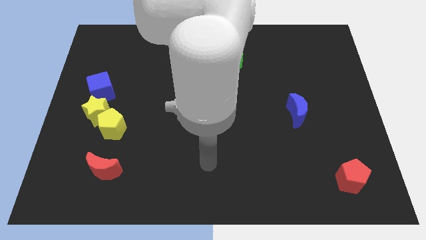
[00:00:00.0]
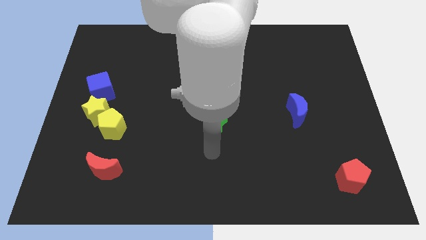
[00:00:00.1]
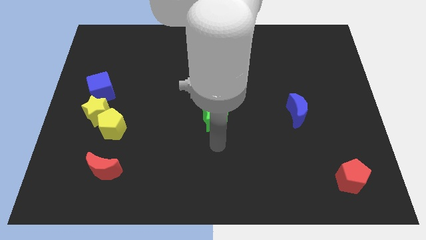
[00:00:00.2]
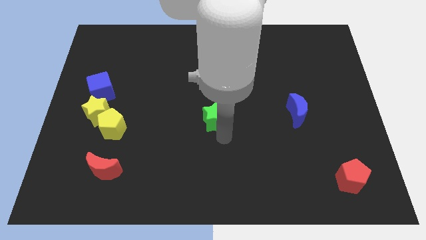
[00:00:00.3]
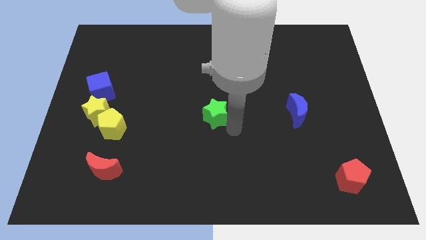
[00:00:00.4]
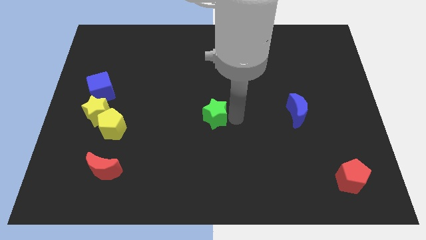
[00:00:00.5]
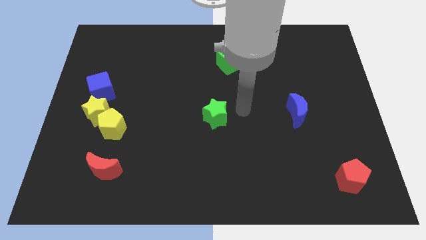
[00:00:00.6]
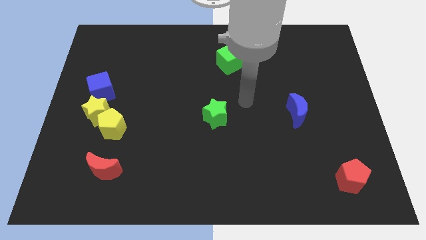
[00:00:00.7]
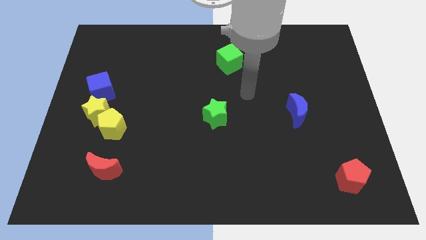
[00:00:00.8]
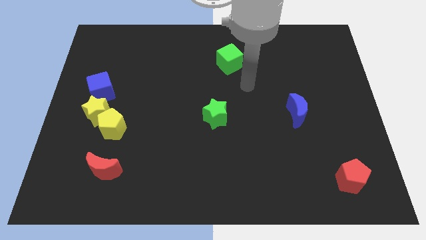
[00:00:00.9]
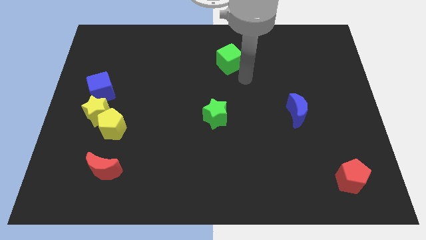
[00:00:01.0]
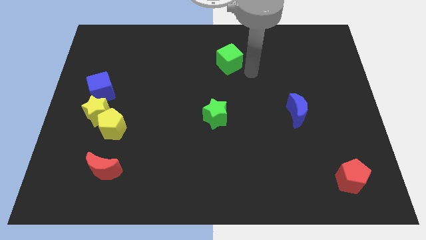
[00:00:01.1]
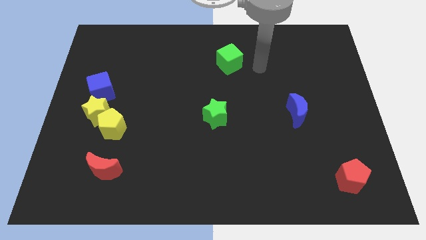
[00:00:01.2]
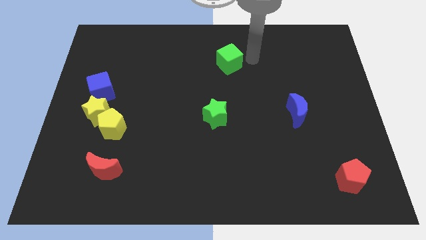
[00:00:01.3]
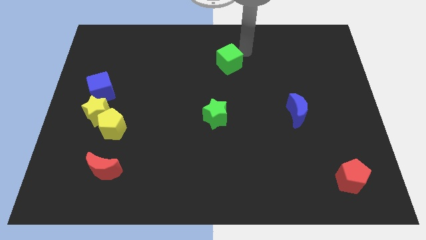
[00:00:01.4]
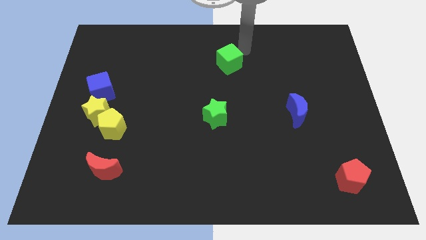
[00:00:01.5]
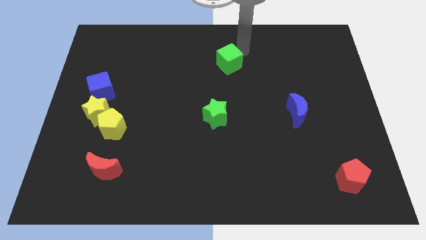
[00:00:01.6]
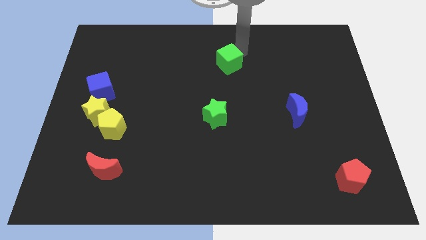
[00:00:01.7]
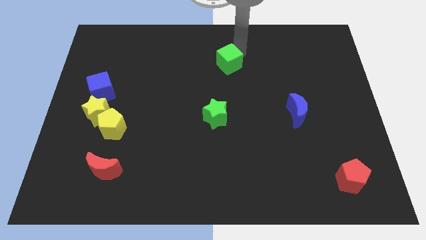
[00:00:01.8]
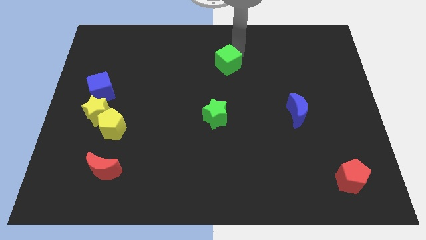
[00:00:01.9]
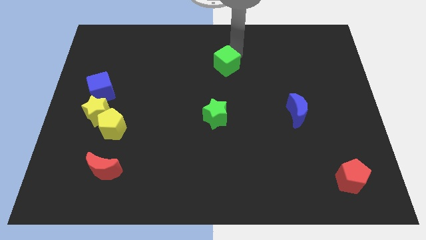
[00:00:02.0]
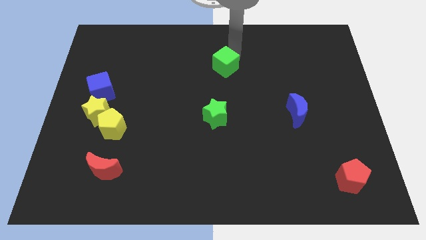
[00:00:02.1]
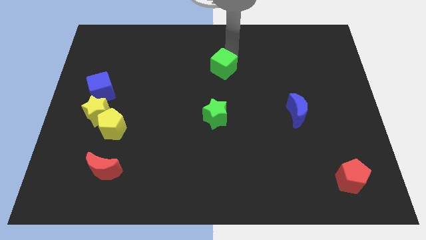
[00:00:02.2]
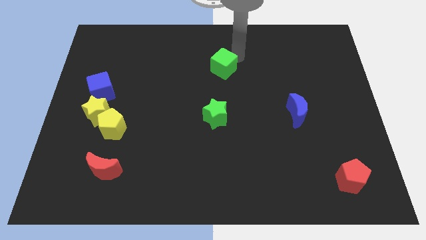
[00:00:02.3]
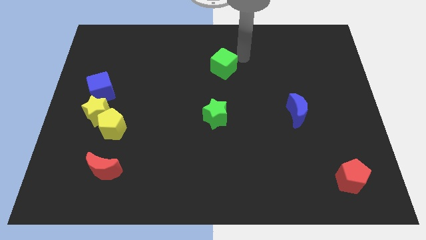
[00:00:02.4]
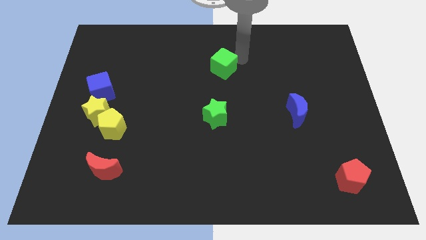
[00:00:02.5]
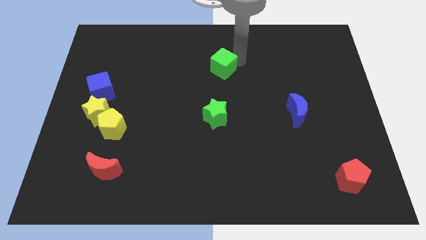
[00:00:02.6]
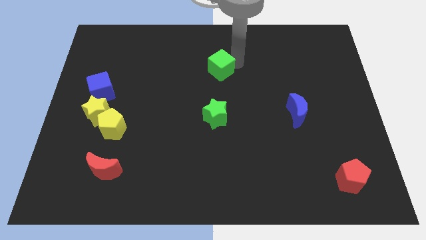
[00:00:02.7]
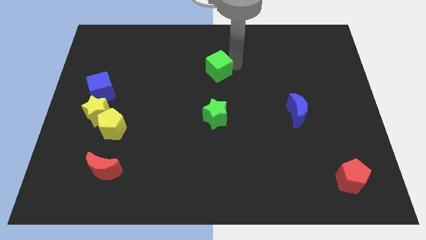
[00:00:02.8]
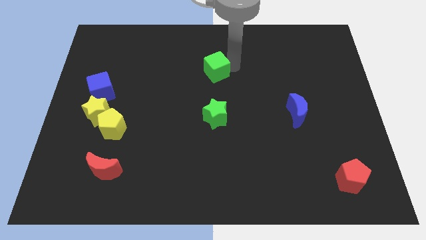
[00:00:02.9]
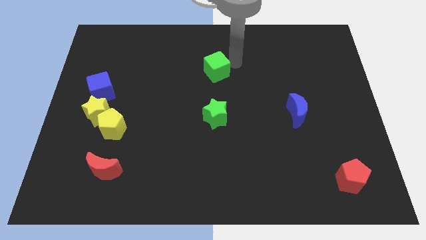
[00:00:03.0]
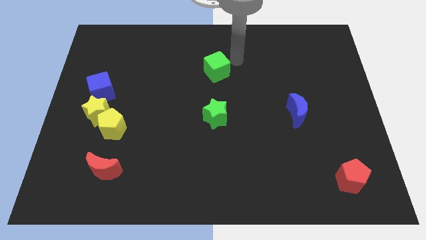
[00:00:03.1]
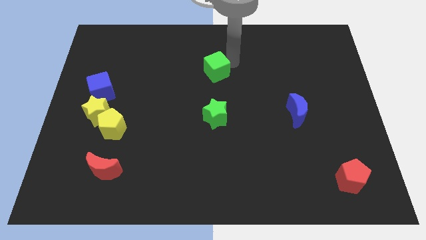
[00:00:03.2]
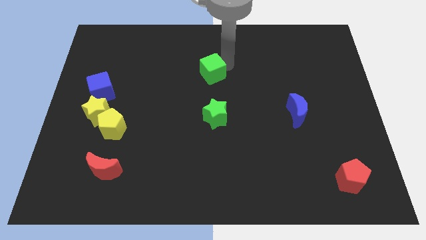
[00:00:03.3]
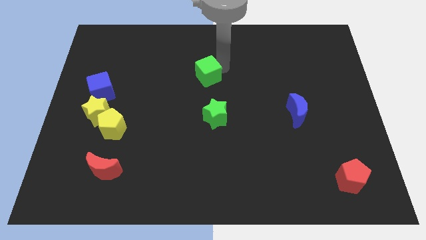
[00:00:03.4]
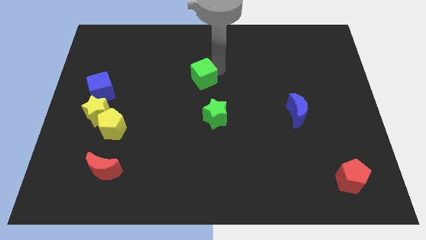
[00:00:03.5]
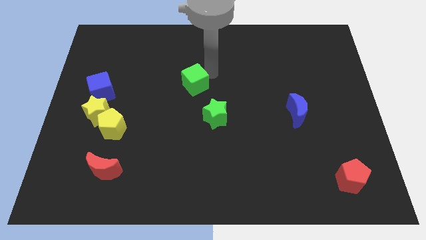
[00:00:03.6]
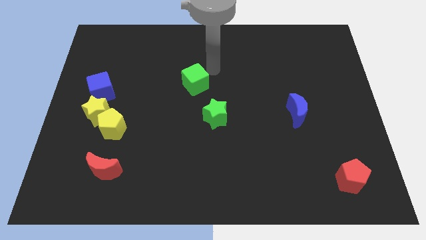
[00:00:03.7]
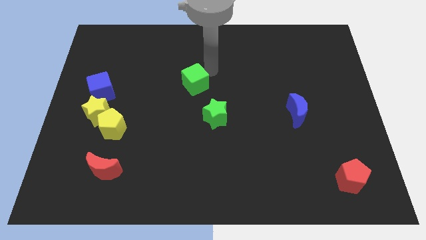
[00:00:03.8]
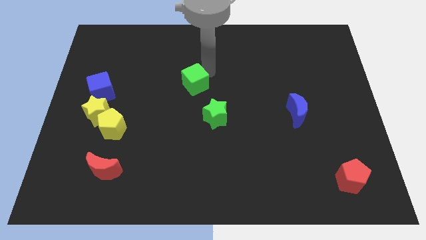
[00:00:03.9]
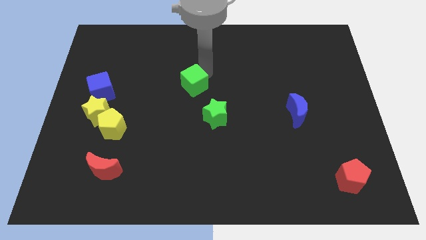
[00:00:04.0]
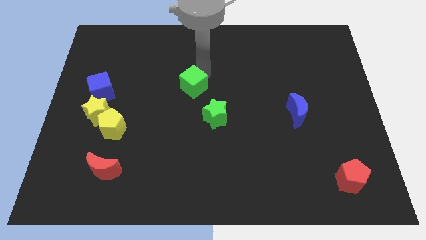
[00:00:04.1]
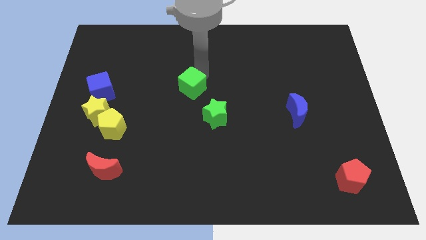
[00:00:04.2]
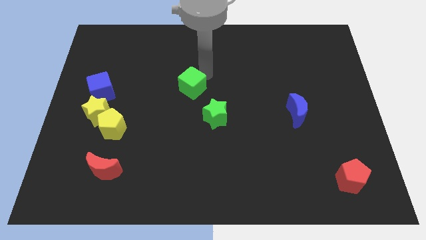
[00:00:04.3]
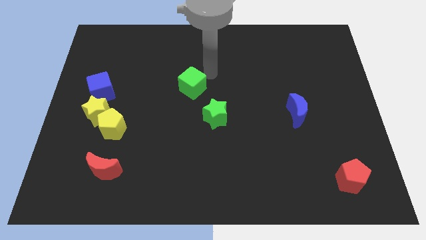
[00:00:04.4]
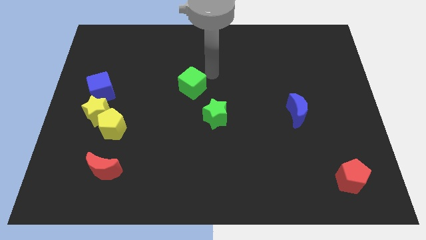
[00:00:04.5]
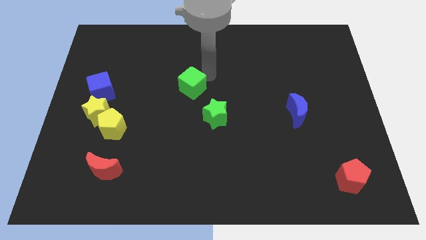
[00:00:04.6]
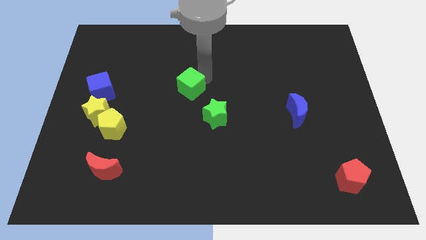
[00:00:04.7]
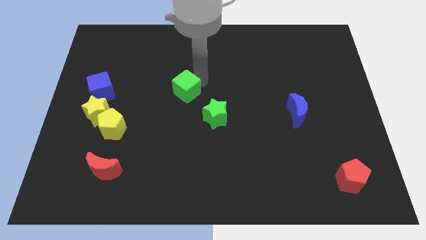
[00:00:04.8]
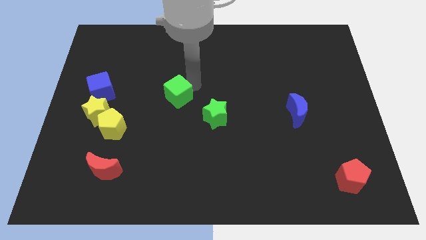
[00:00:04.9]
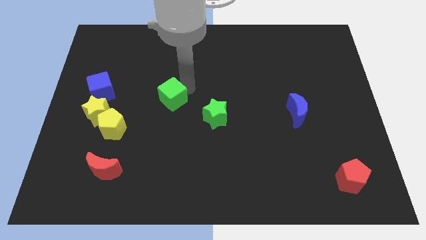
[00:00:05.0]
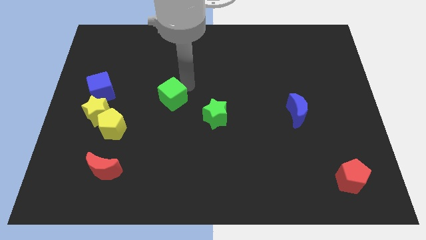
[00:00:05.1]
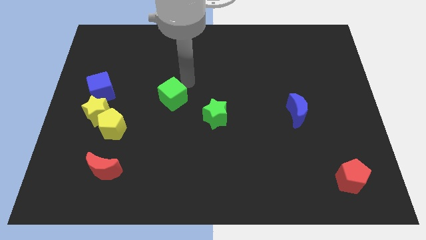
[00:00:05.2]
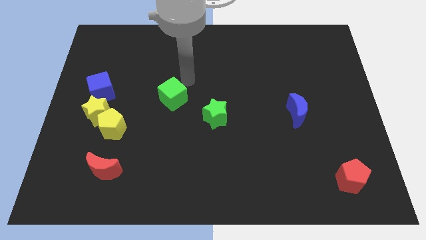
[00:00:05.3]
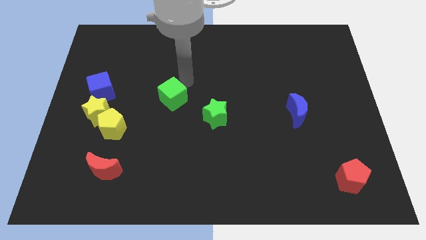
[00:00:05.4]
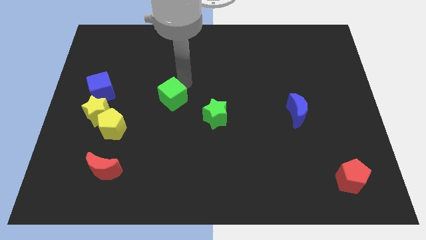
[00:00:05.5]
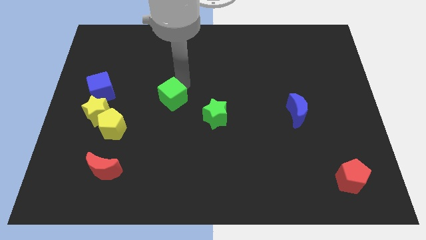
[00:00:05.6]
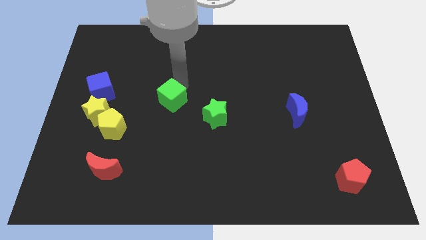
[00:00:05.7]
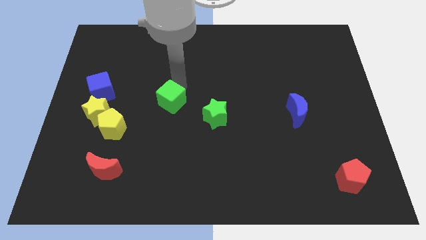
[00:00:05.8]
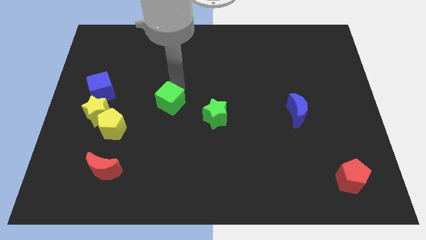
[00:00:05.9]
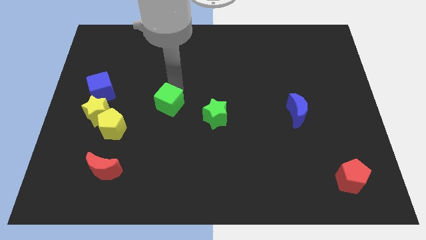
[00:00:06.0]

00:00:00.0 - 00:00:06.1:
slide the green cube down and then to the left

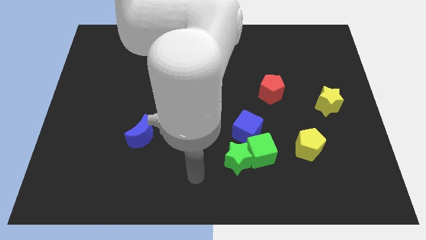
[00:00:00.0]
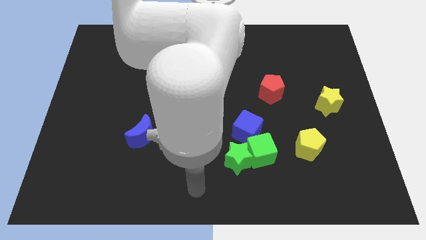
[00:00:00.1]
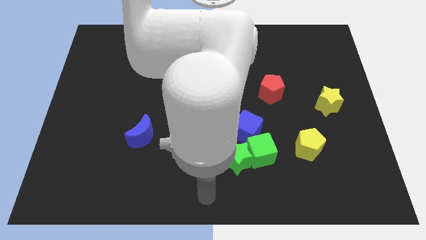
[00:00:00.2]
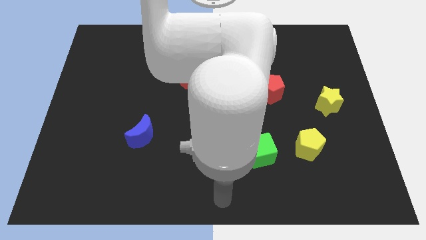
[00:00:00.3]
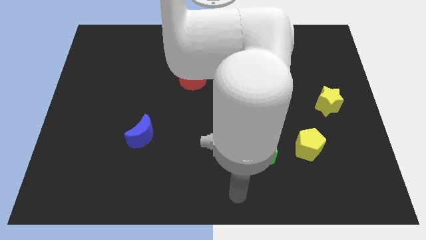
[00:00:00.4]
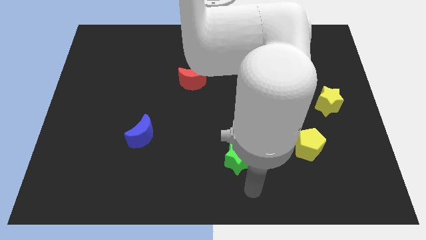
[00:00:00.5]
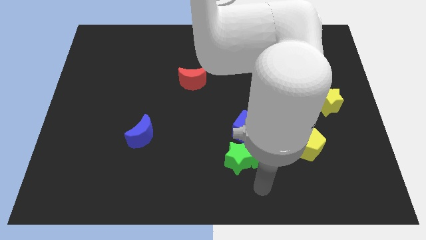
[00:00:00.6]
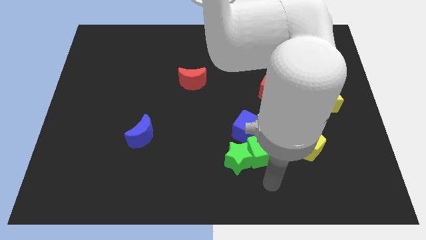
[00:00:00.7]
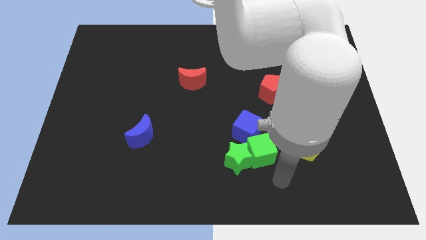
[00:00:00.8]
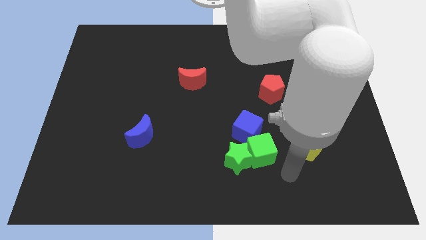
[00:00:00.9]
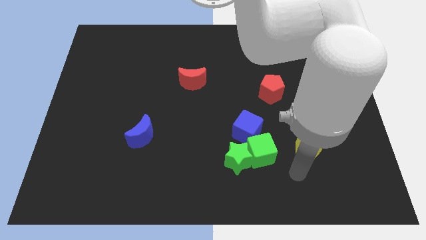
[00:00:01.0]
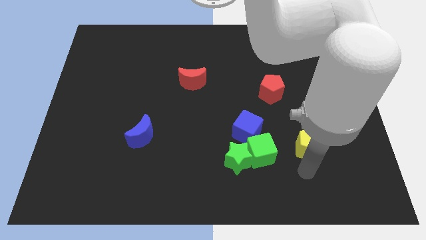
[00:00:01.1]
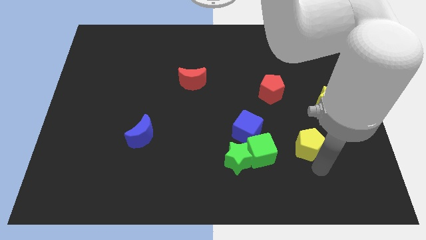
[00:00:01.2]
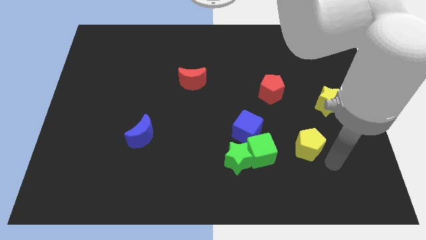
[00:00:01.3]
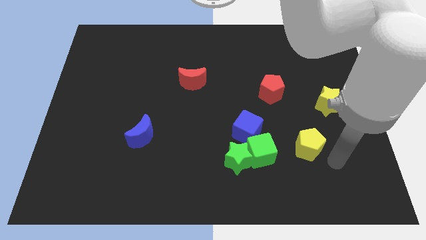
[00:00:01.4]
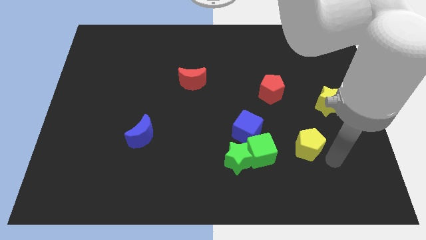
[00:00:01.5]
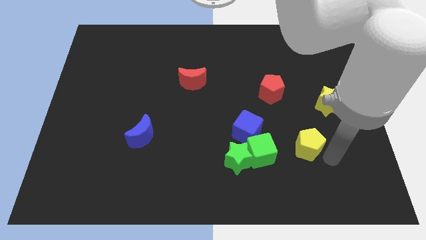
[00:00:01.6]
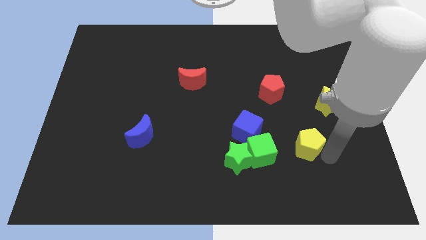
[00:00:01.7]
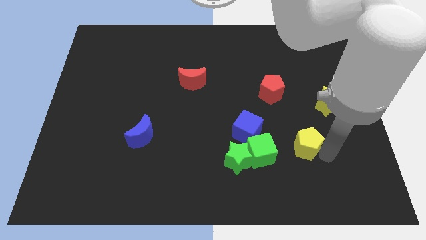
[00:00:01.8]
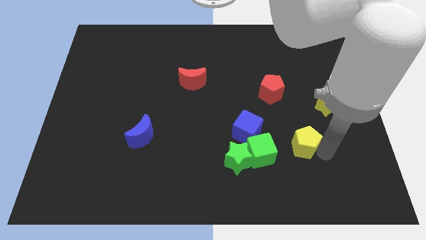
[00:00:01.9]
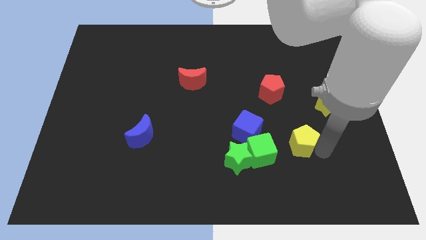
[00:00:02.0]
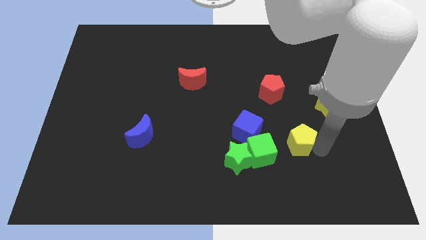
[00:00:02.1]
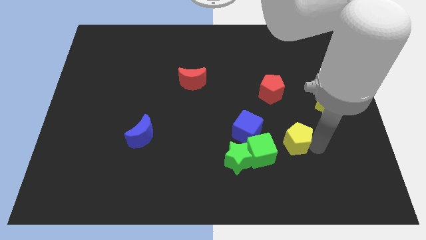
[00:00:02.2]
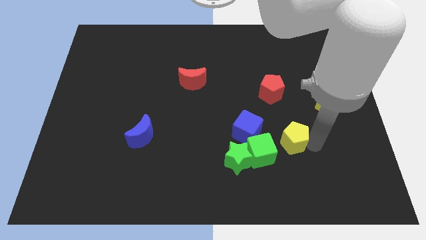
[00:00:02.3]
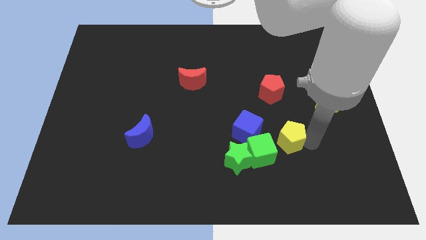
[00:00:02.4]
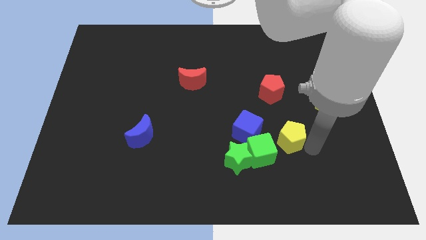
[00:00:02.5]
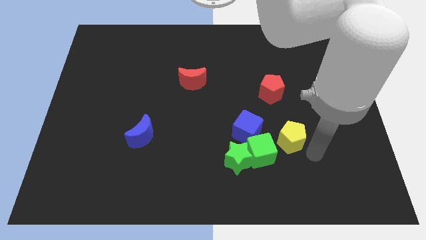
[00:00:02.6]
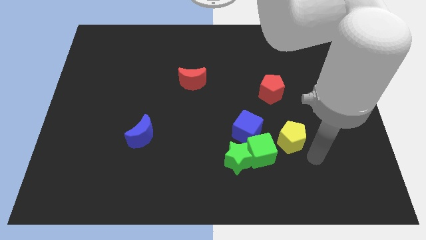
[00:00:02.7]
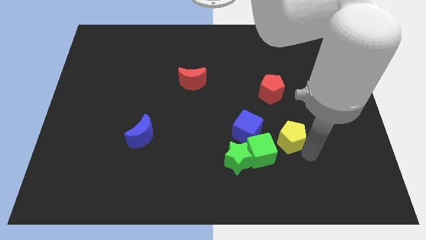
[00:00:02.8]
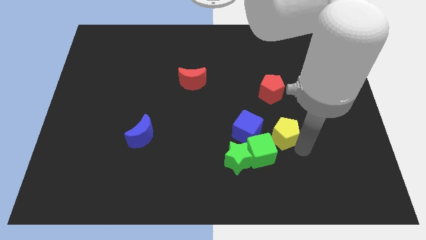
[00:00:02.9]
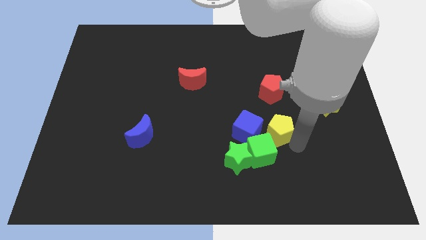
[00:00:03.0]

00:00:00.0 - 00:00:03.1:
slide the yellow pentagon a little bit up and then to the left
